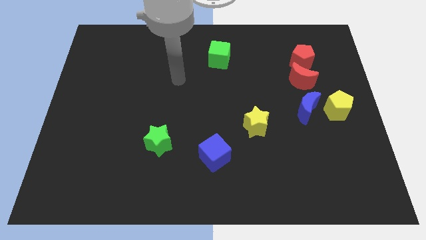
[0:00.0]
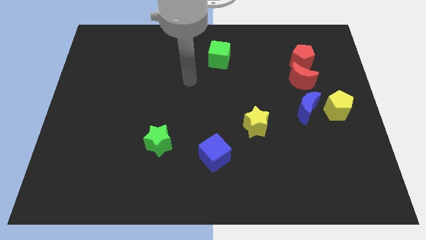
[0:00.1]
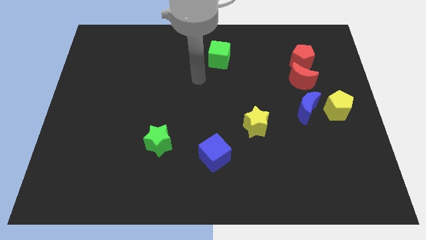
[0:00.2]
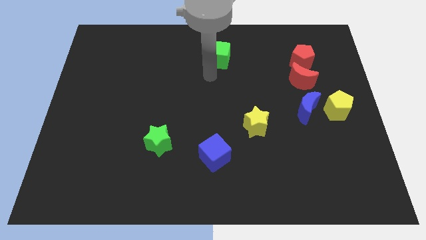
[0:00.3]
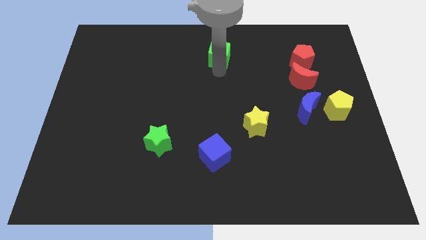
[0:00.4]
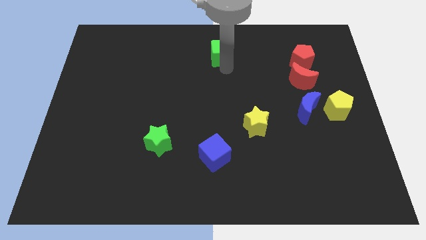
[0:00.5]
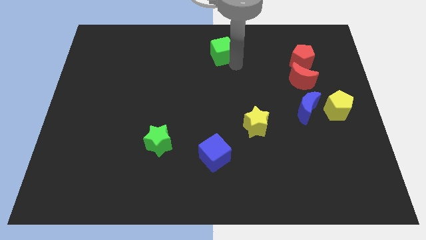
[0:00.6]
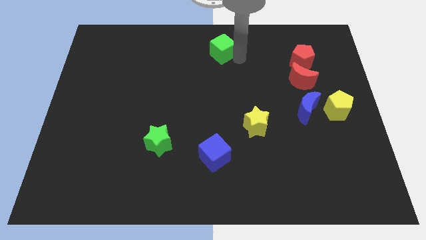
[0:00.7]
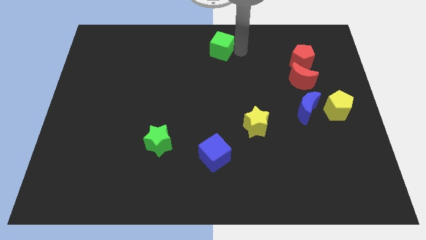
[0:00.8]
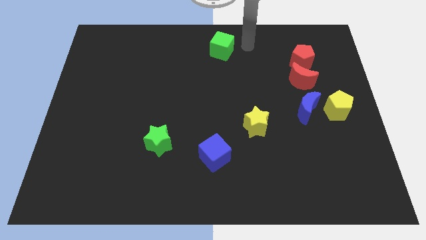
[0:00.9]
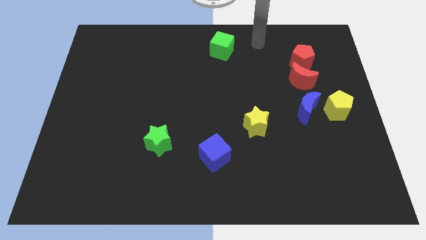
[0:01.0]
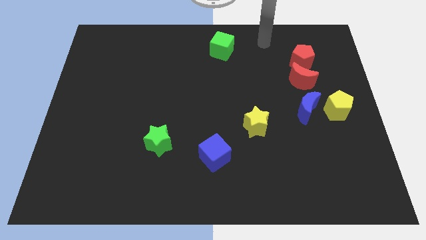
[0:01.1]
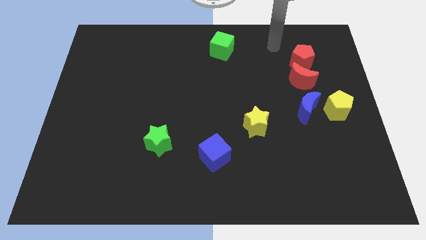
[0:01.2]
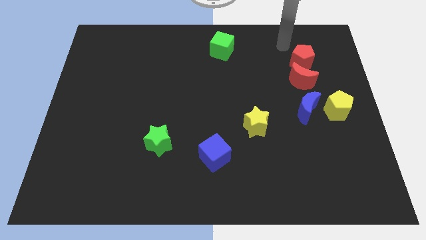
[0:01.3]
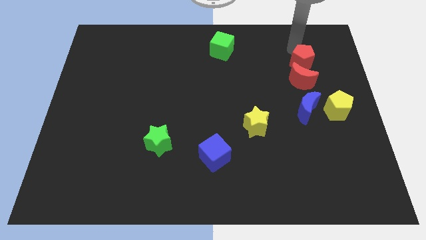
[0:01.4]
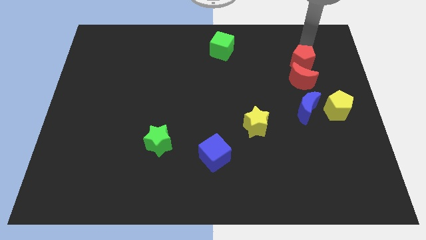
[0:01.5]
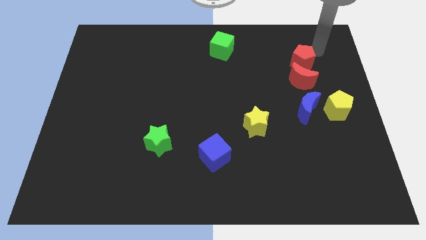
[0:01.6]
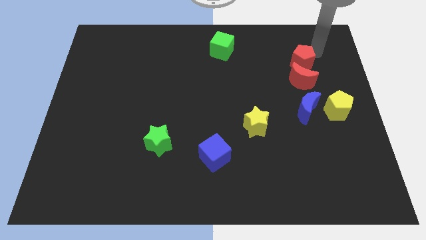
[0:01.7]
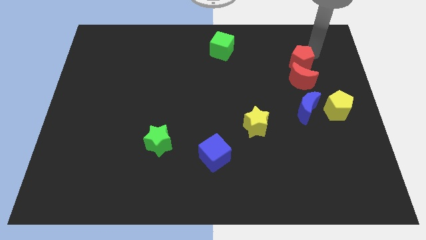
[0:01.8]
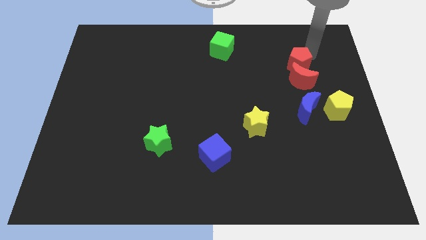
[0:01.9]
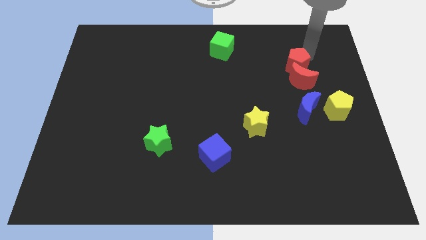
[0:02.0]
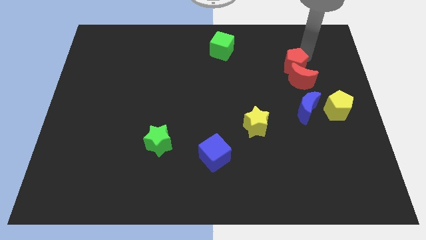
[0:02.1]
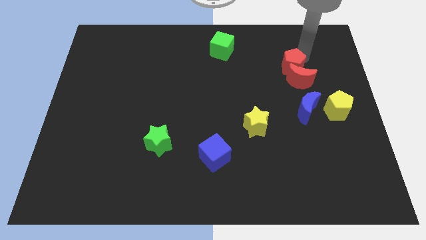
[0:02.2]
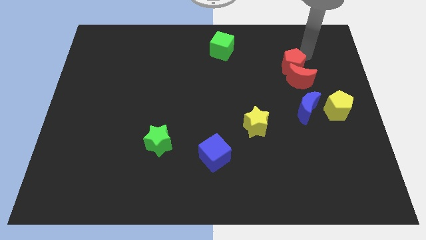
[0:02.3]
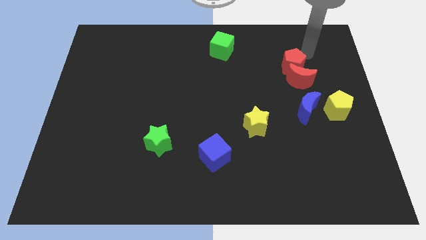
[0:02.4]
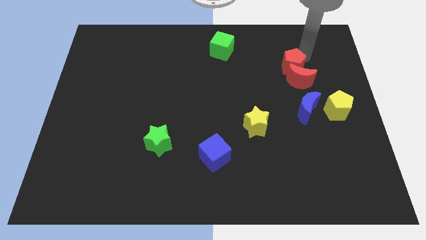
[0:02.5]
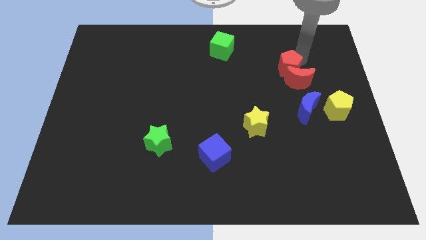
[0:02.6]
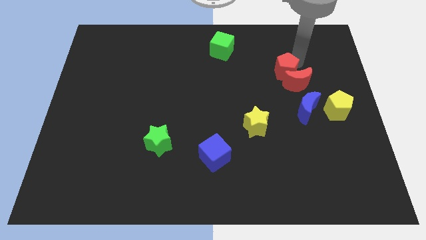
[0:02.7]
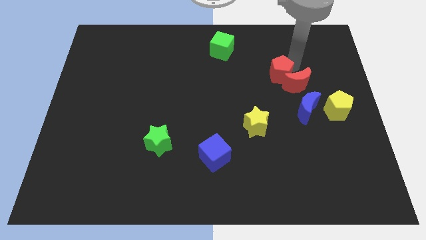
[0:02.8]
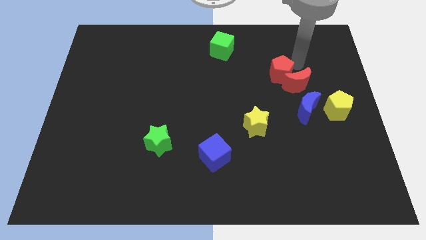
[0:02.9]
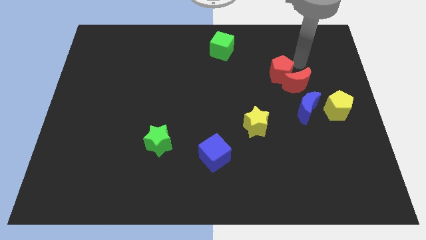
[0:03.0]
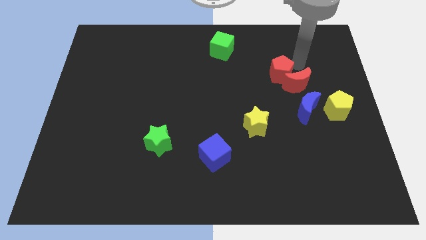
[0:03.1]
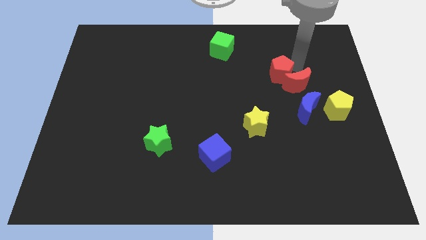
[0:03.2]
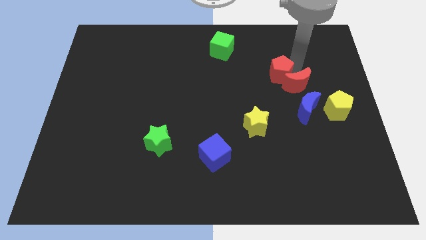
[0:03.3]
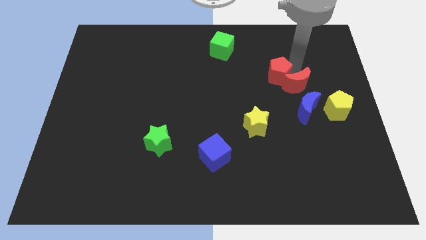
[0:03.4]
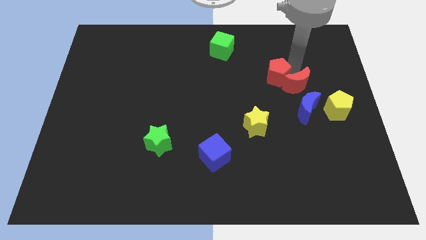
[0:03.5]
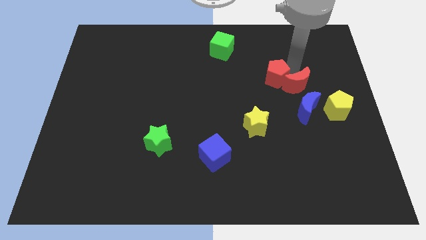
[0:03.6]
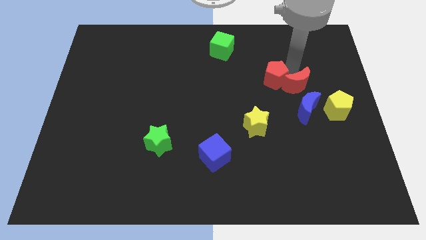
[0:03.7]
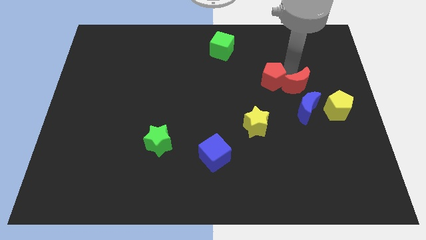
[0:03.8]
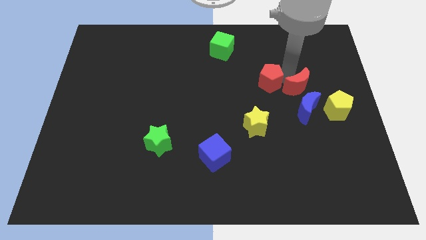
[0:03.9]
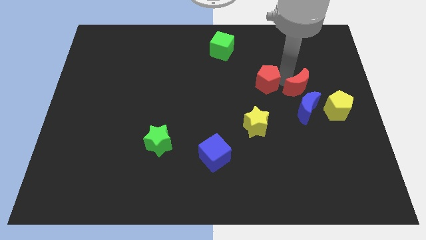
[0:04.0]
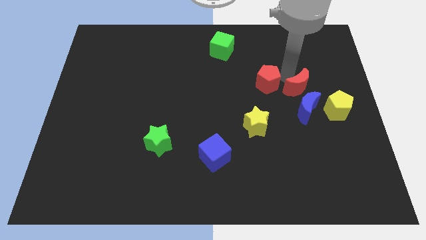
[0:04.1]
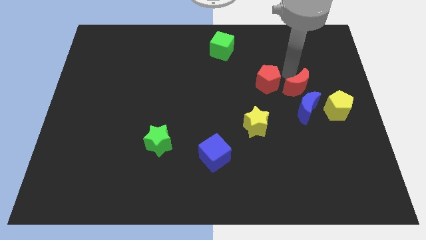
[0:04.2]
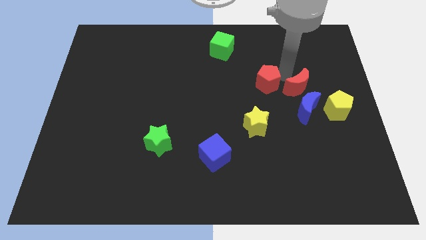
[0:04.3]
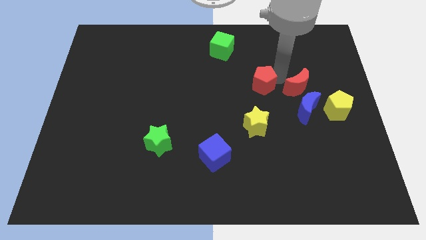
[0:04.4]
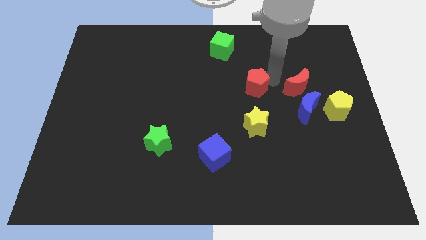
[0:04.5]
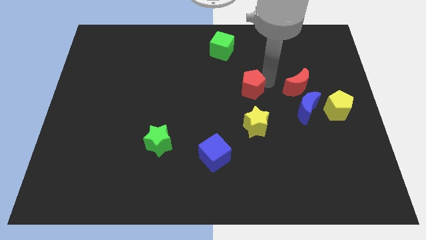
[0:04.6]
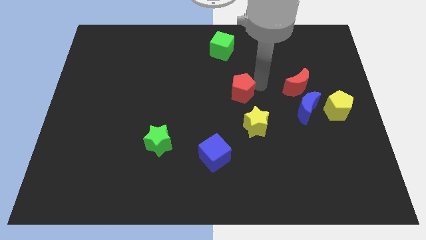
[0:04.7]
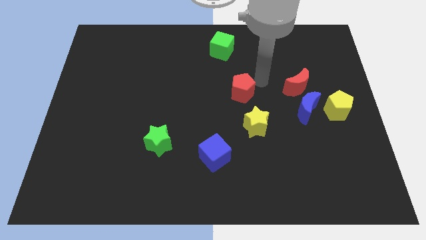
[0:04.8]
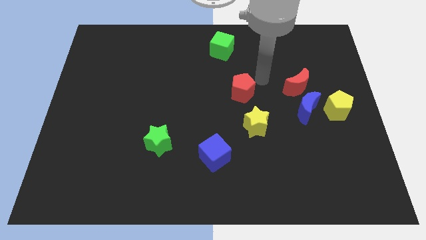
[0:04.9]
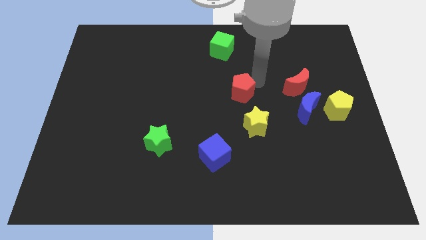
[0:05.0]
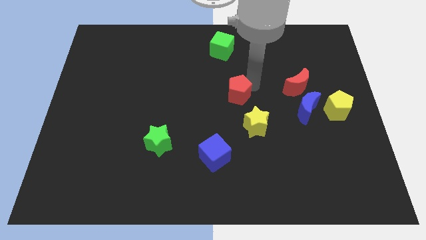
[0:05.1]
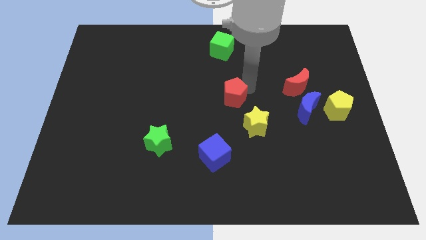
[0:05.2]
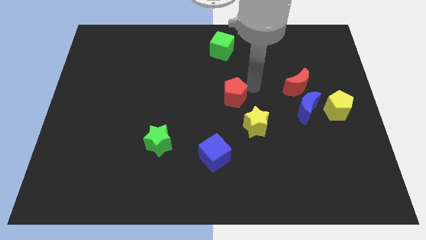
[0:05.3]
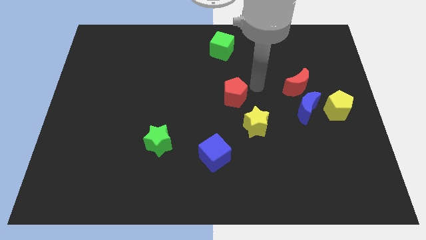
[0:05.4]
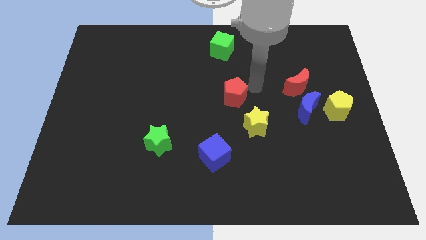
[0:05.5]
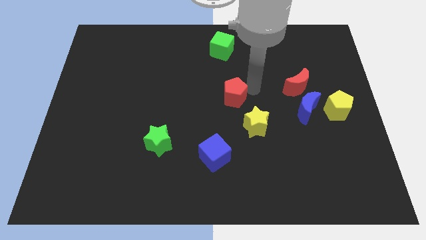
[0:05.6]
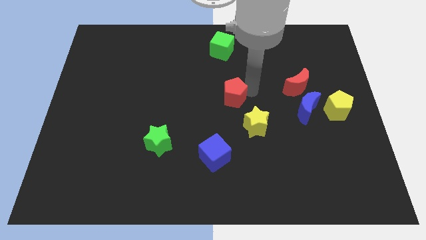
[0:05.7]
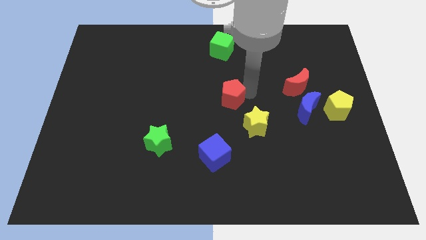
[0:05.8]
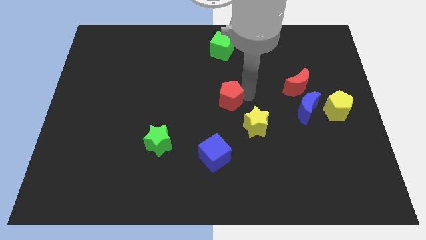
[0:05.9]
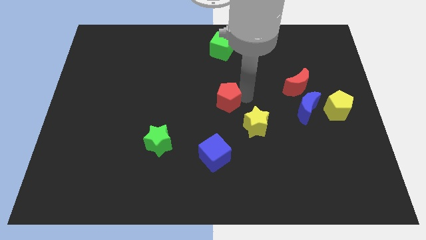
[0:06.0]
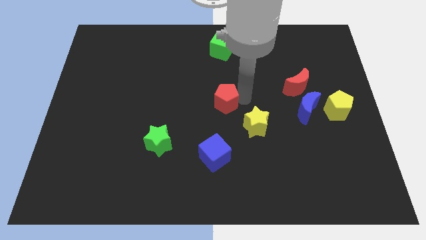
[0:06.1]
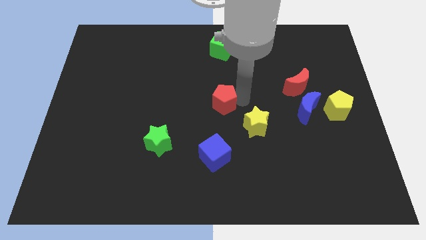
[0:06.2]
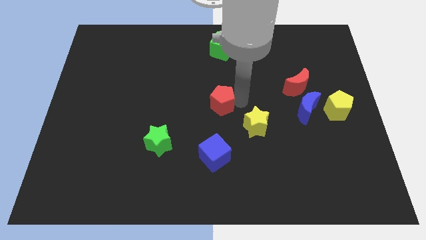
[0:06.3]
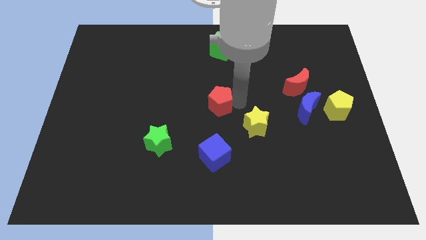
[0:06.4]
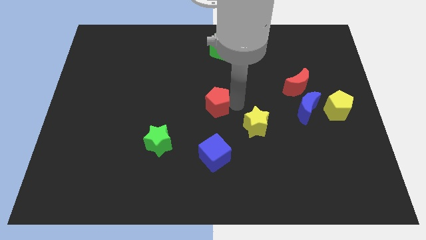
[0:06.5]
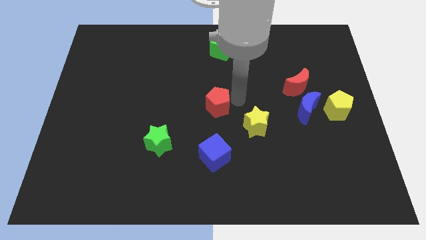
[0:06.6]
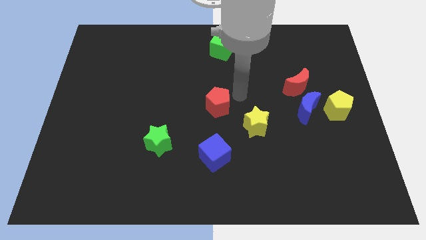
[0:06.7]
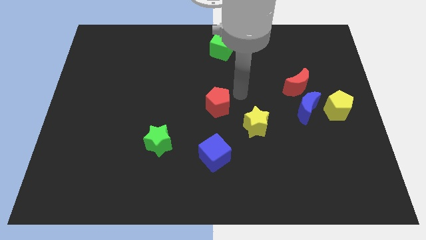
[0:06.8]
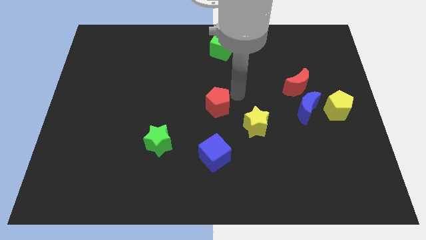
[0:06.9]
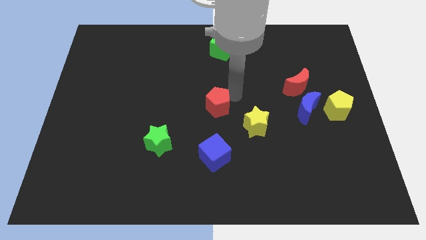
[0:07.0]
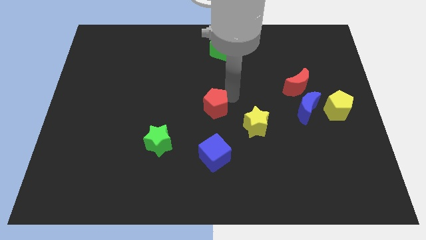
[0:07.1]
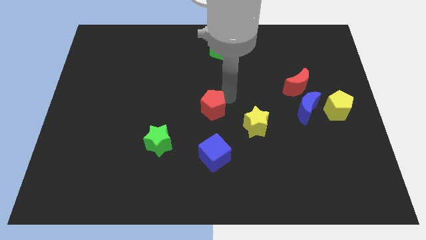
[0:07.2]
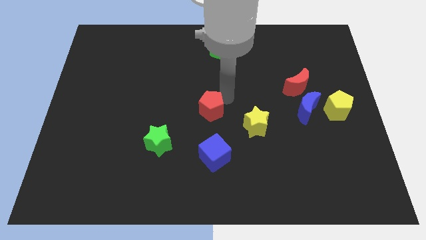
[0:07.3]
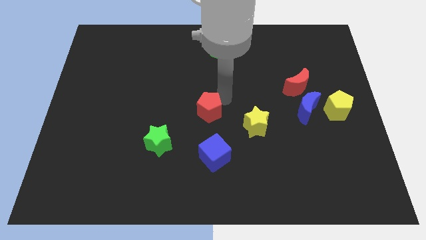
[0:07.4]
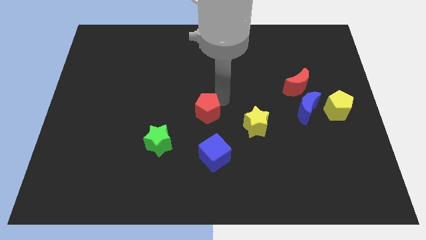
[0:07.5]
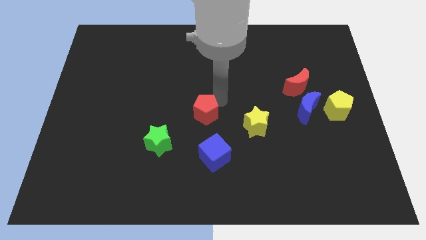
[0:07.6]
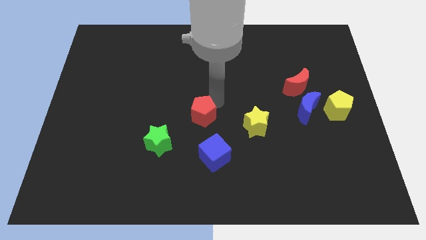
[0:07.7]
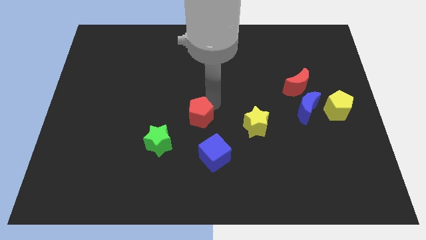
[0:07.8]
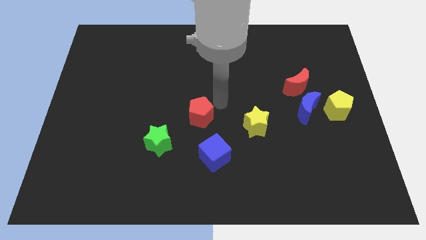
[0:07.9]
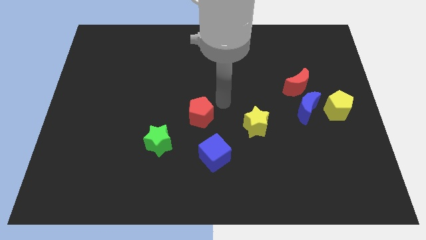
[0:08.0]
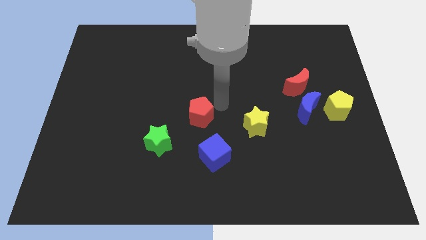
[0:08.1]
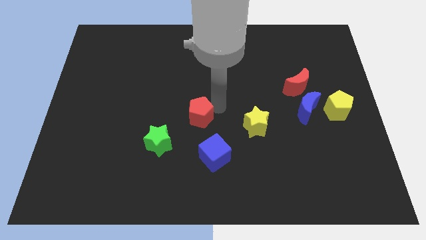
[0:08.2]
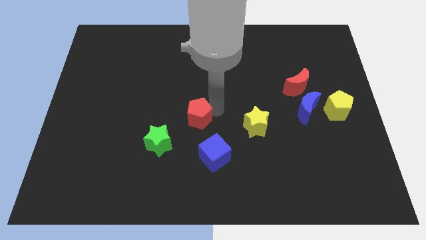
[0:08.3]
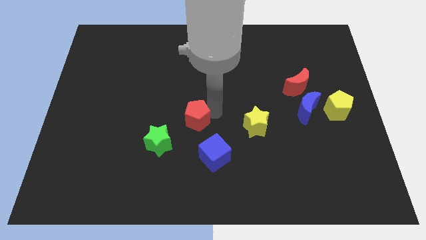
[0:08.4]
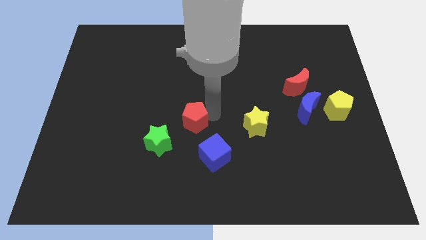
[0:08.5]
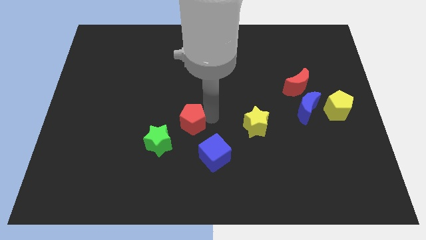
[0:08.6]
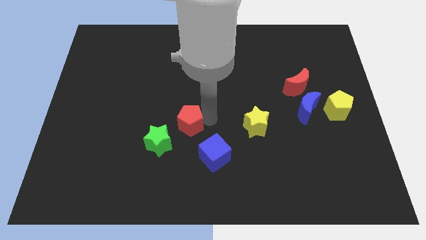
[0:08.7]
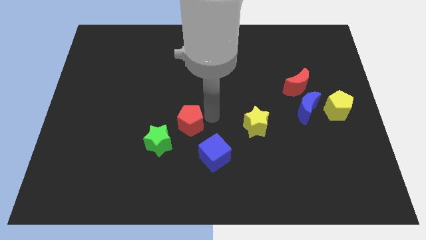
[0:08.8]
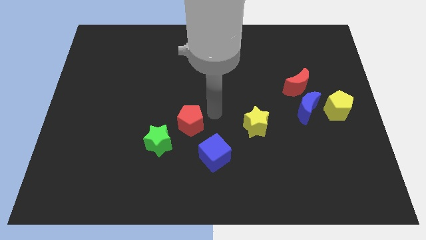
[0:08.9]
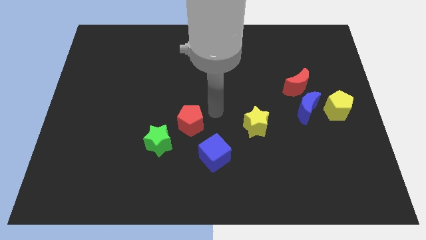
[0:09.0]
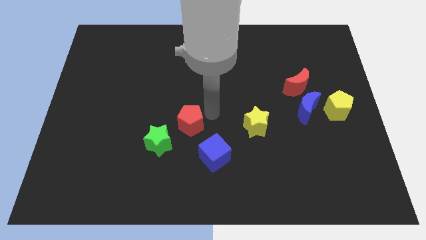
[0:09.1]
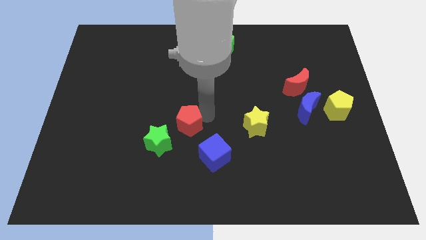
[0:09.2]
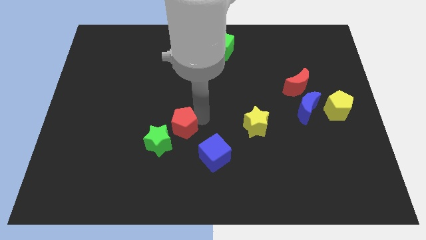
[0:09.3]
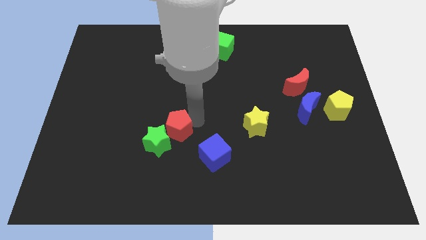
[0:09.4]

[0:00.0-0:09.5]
move the red pentagon to the green star
